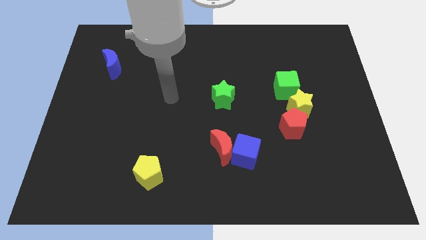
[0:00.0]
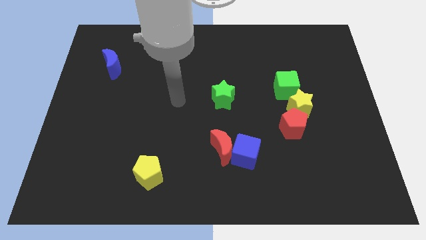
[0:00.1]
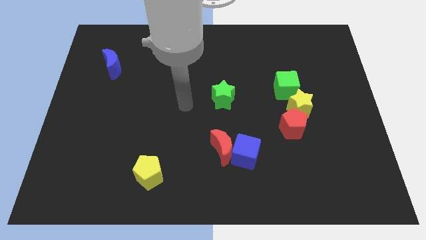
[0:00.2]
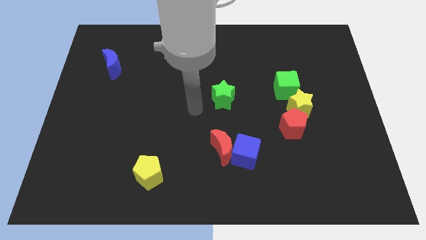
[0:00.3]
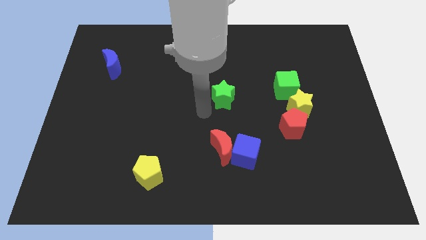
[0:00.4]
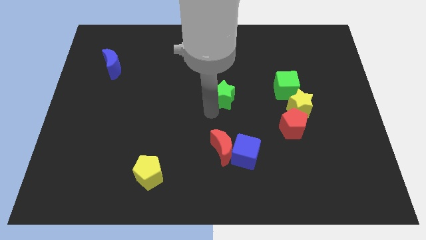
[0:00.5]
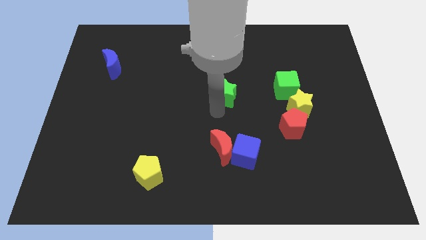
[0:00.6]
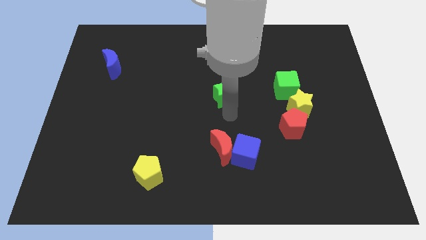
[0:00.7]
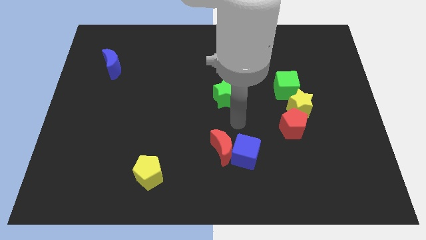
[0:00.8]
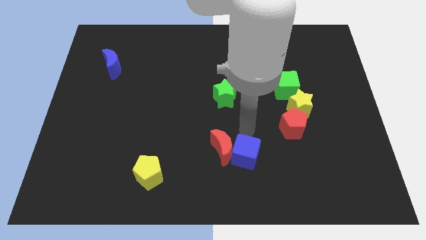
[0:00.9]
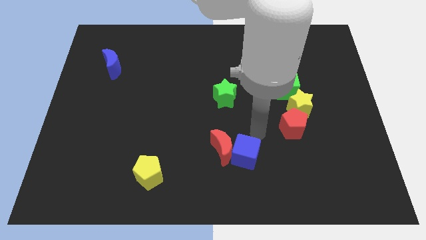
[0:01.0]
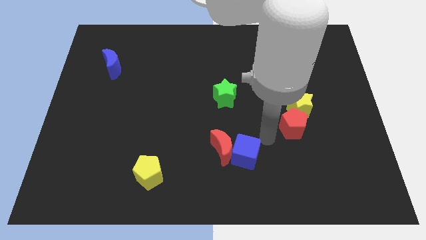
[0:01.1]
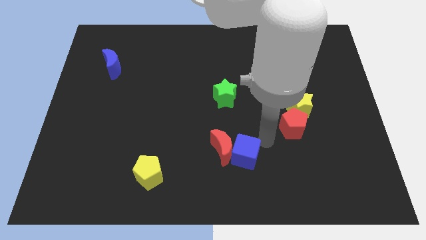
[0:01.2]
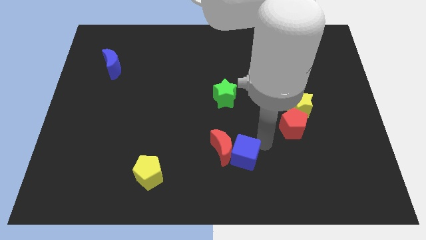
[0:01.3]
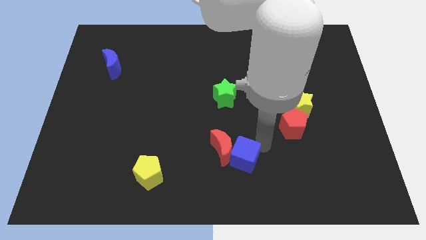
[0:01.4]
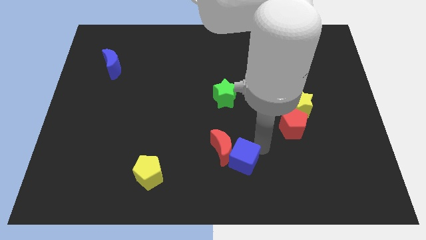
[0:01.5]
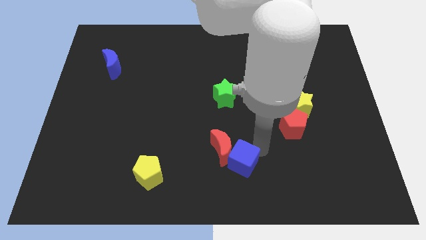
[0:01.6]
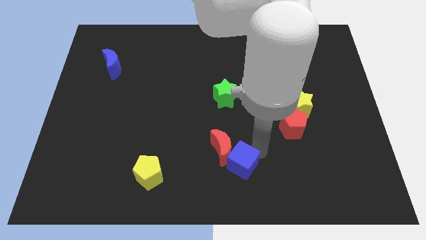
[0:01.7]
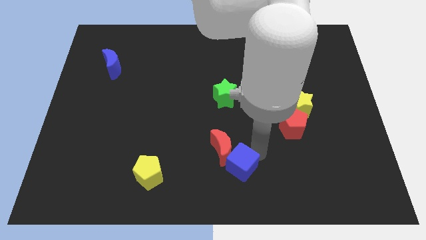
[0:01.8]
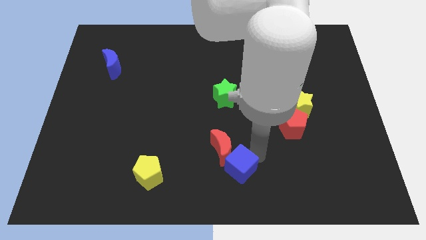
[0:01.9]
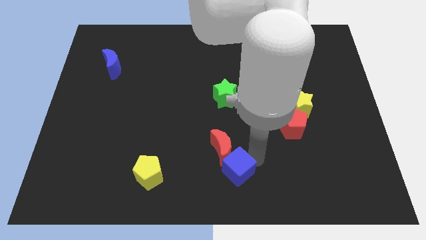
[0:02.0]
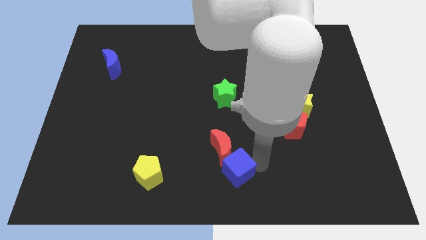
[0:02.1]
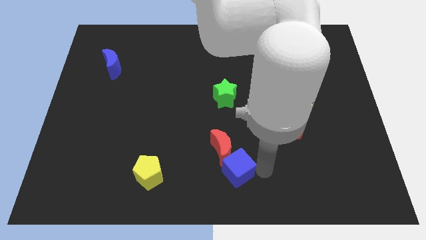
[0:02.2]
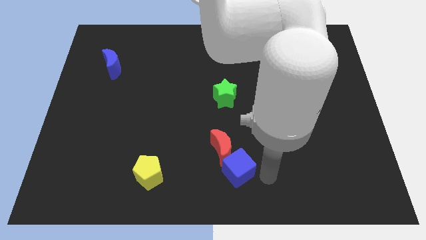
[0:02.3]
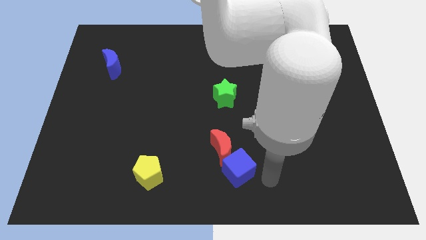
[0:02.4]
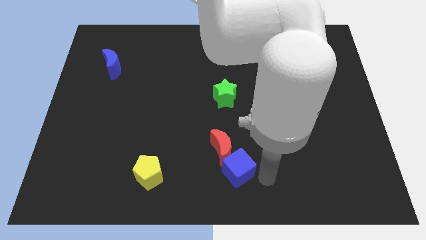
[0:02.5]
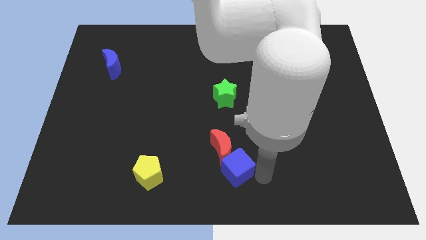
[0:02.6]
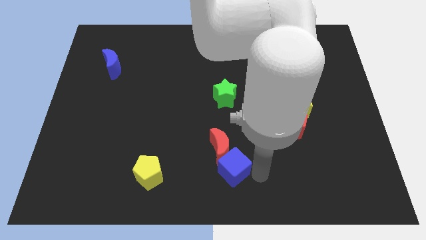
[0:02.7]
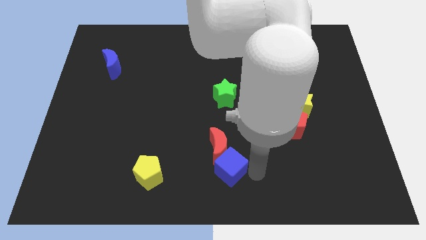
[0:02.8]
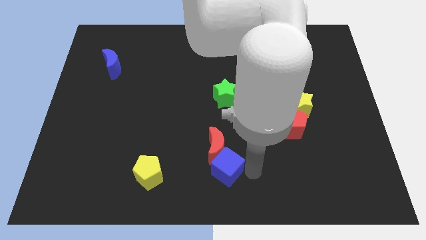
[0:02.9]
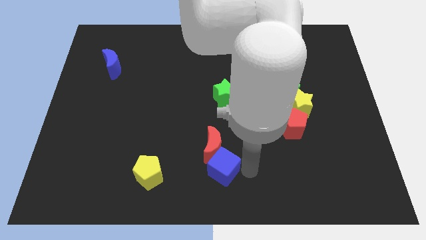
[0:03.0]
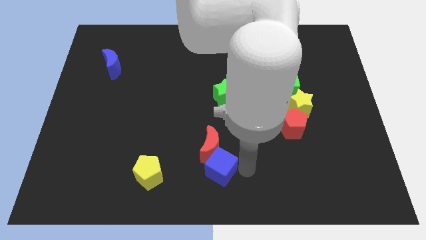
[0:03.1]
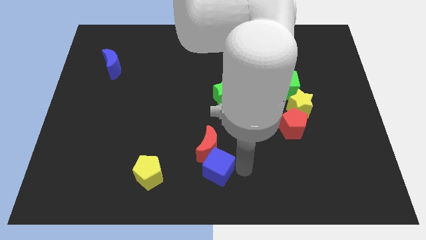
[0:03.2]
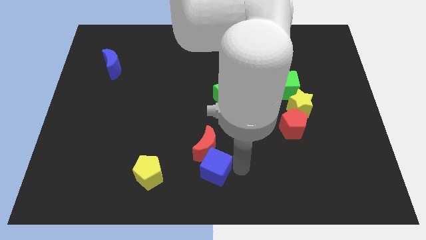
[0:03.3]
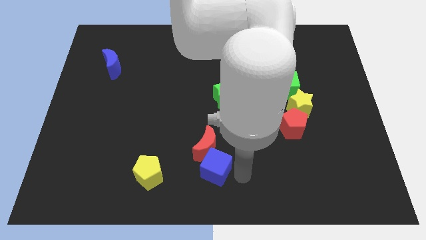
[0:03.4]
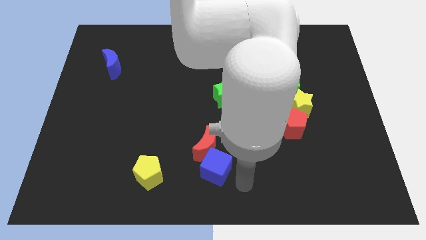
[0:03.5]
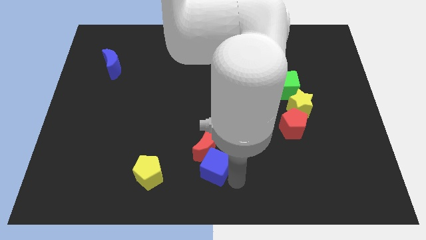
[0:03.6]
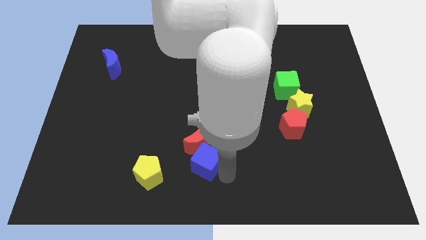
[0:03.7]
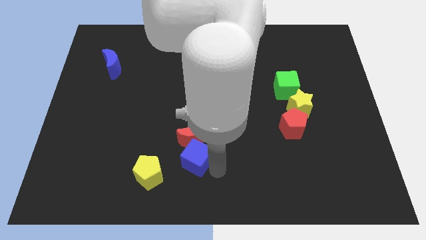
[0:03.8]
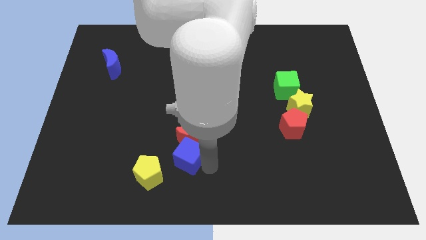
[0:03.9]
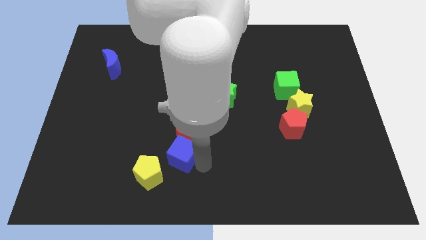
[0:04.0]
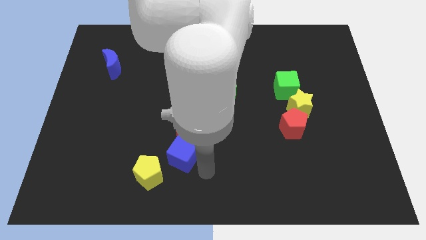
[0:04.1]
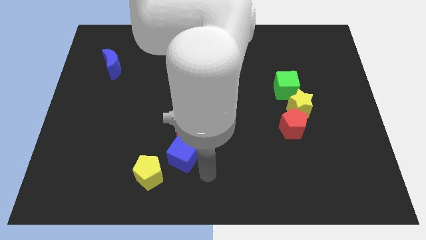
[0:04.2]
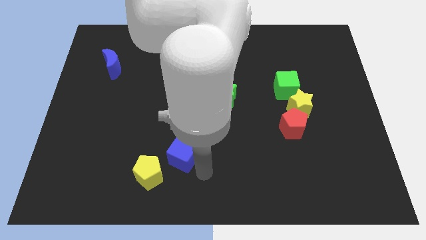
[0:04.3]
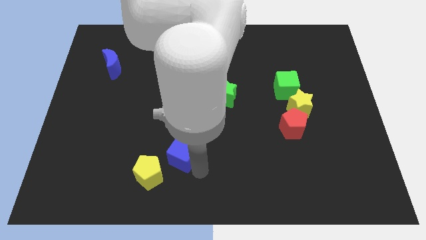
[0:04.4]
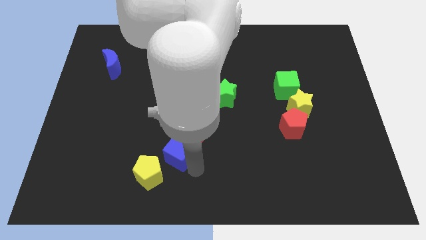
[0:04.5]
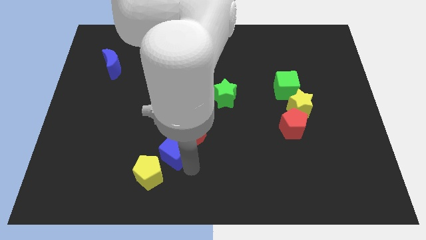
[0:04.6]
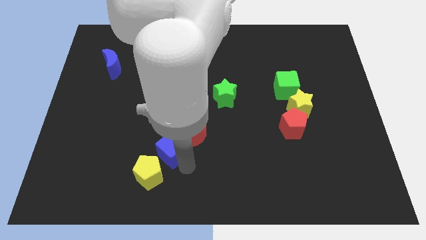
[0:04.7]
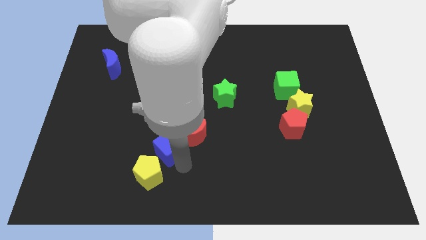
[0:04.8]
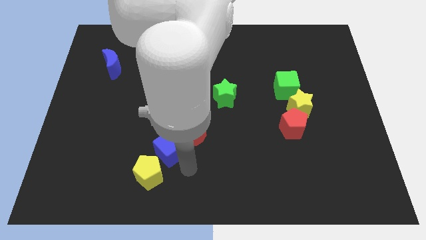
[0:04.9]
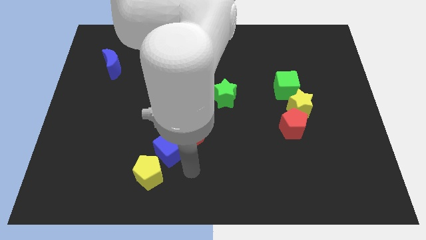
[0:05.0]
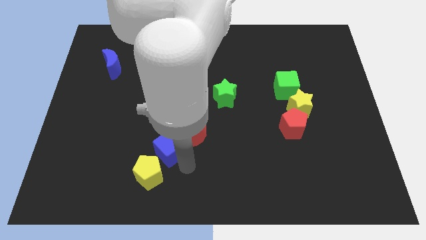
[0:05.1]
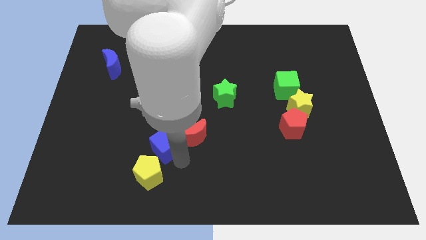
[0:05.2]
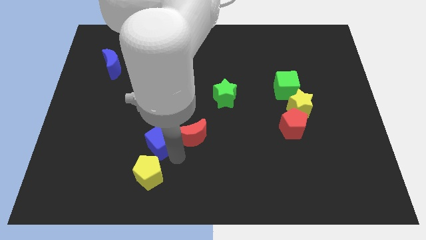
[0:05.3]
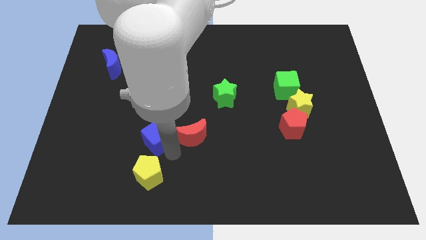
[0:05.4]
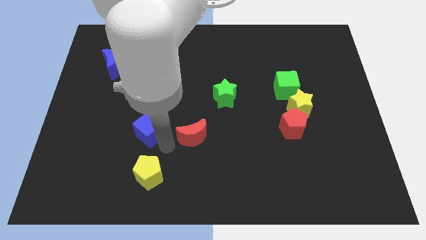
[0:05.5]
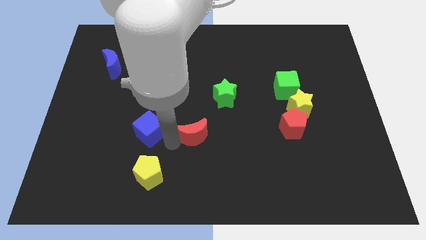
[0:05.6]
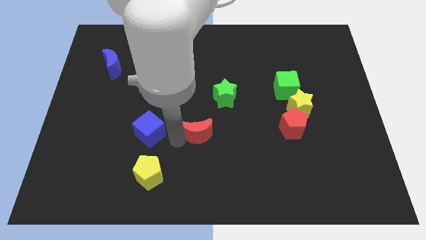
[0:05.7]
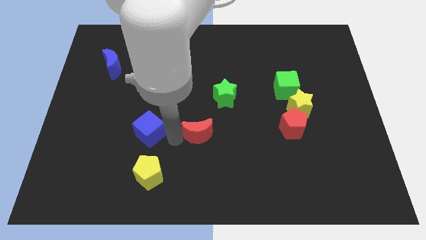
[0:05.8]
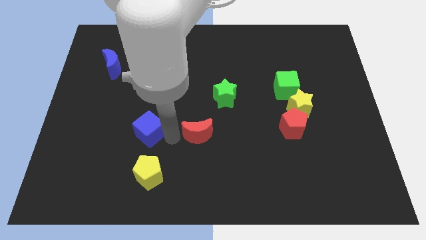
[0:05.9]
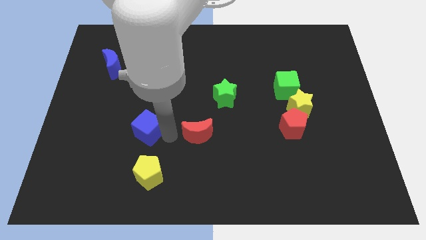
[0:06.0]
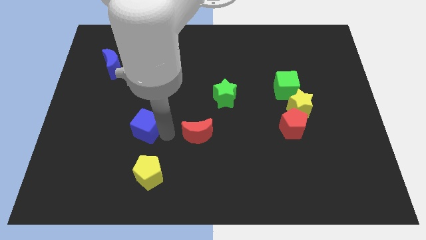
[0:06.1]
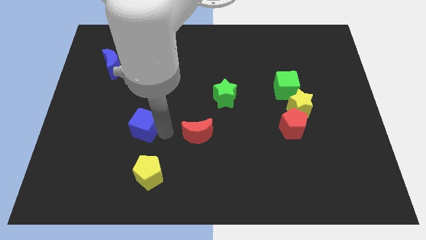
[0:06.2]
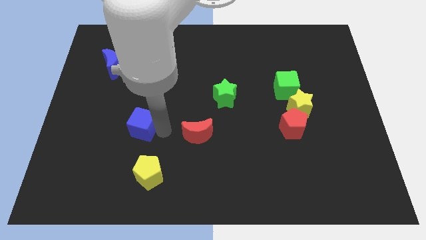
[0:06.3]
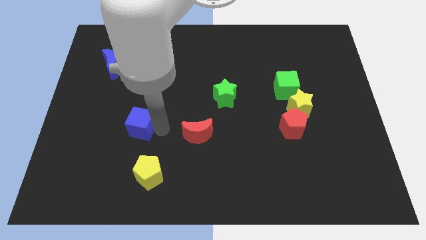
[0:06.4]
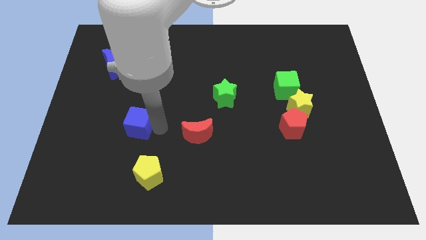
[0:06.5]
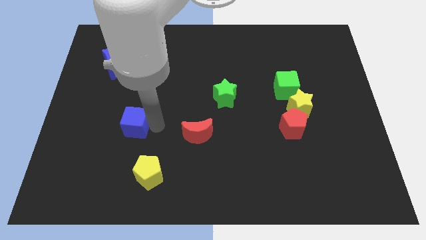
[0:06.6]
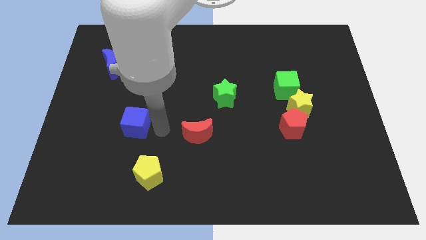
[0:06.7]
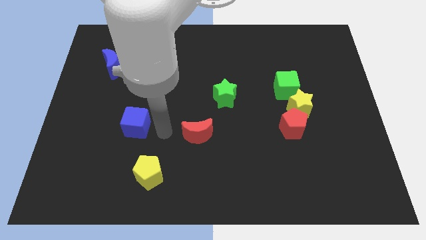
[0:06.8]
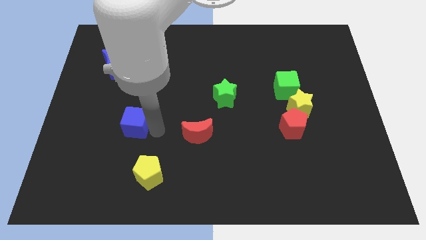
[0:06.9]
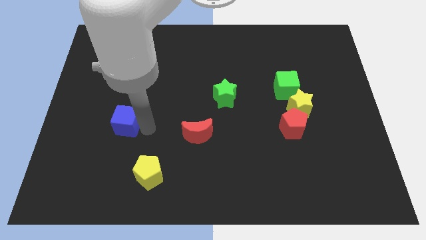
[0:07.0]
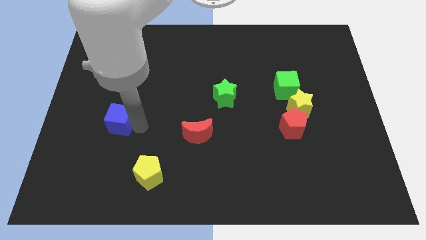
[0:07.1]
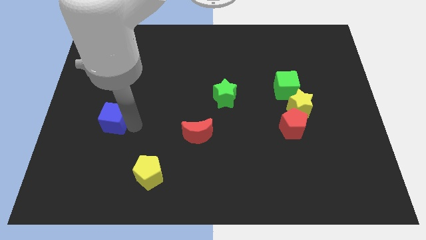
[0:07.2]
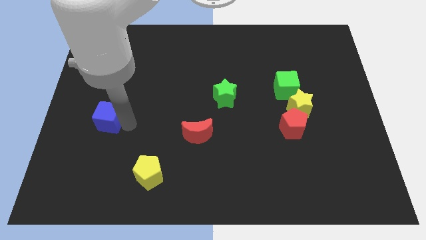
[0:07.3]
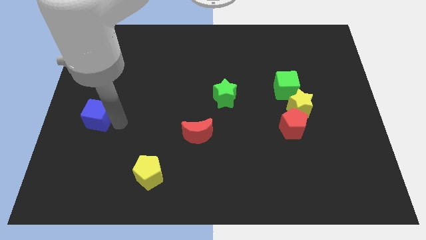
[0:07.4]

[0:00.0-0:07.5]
put the blue cube to the left side

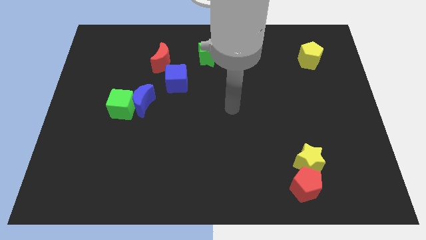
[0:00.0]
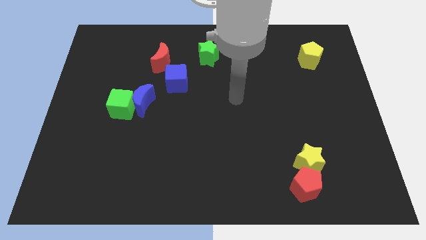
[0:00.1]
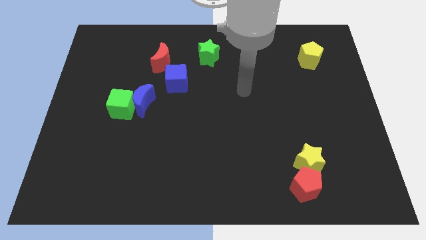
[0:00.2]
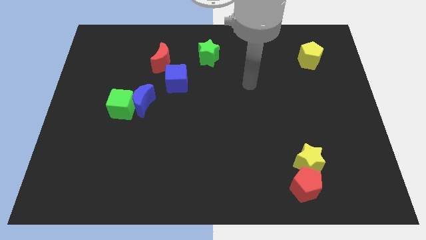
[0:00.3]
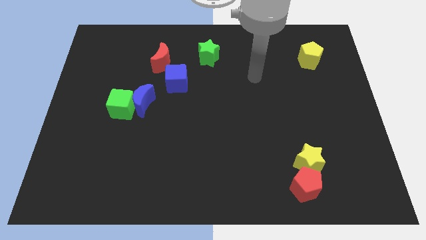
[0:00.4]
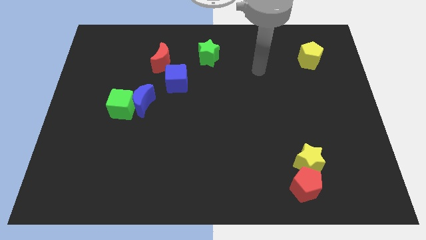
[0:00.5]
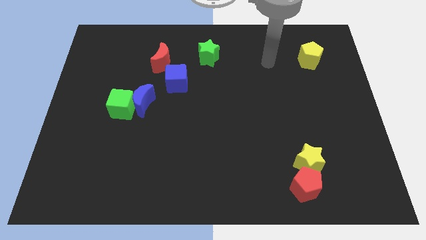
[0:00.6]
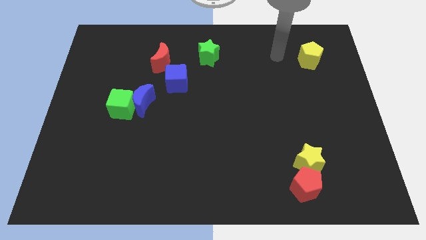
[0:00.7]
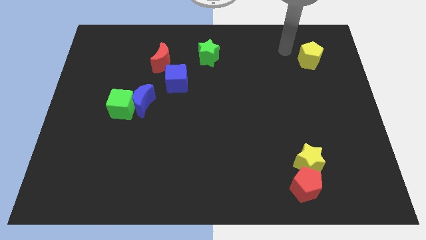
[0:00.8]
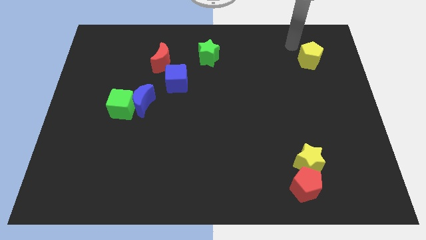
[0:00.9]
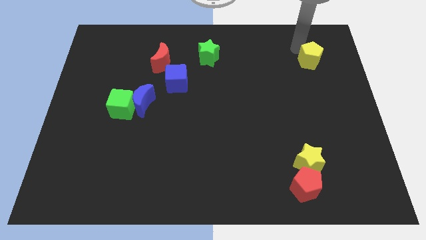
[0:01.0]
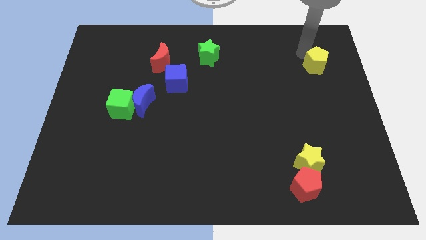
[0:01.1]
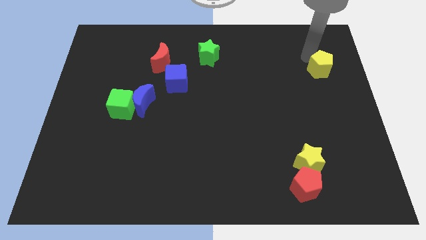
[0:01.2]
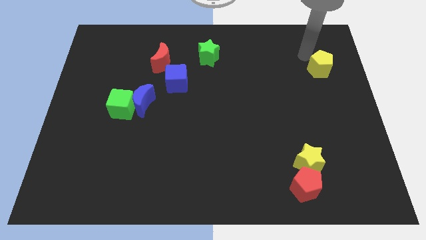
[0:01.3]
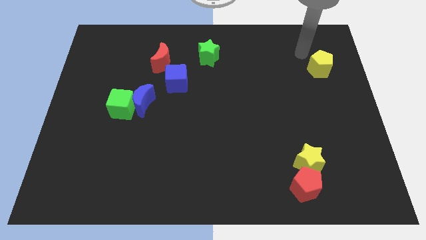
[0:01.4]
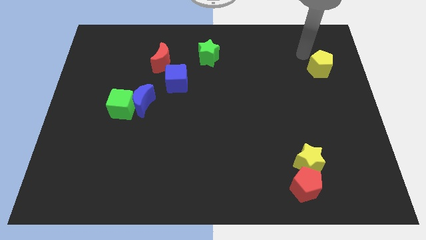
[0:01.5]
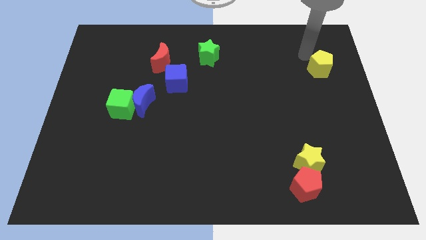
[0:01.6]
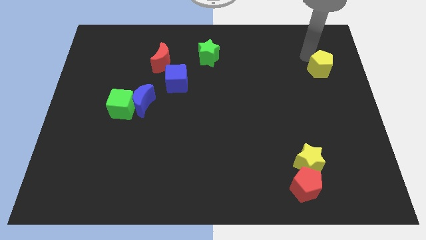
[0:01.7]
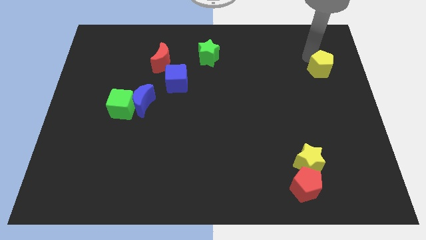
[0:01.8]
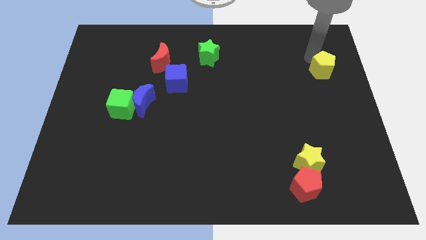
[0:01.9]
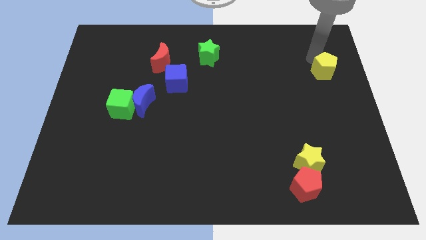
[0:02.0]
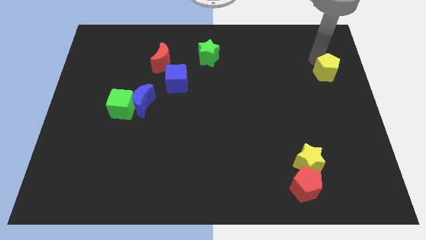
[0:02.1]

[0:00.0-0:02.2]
push the yellow pentagon to the right side
